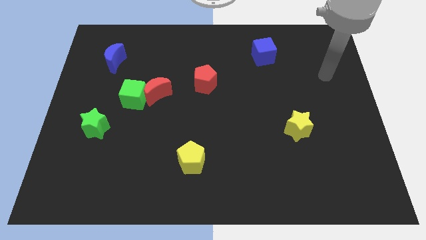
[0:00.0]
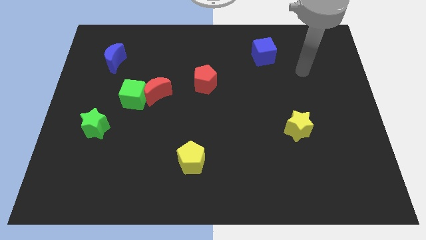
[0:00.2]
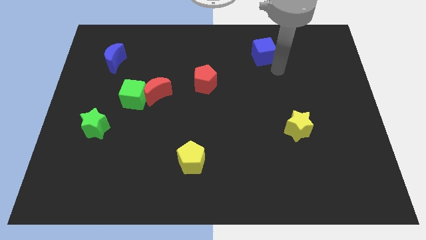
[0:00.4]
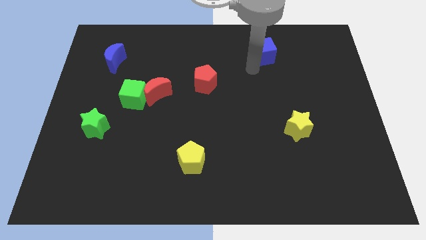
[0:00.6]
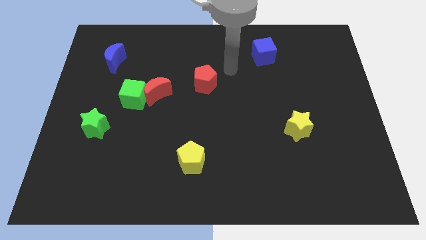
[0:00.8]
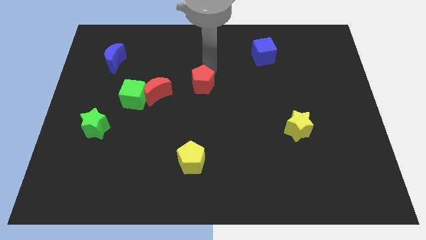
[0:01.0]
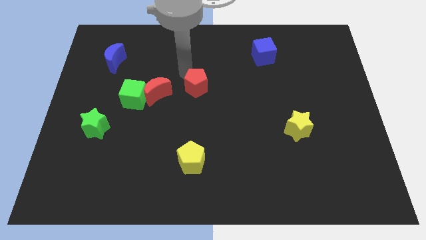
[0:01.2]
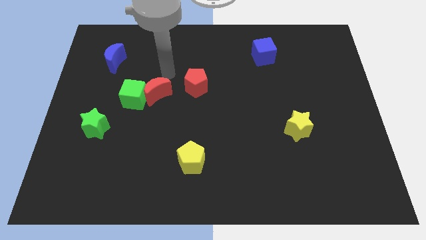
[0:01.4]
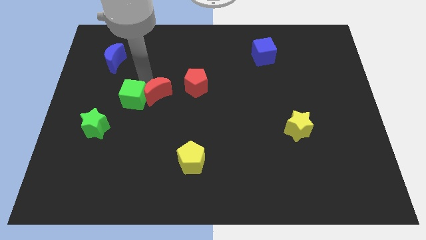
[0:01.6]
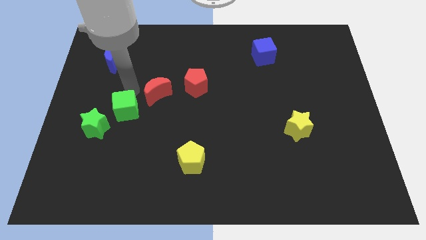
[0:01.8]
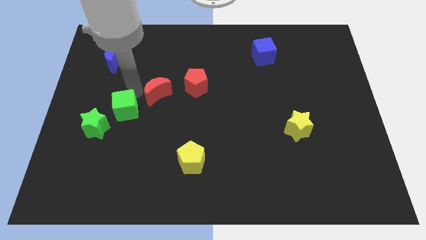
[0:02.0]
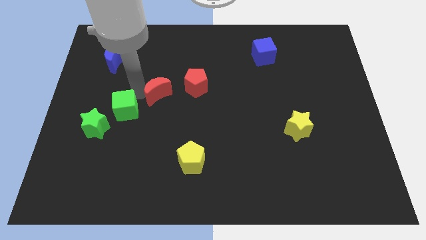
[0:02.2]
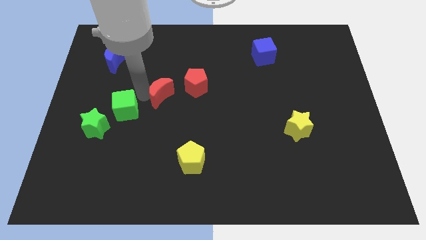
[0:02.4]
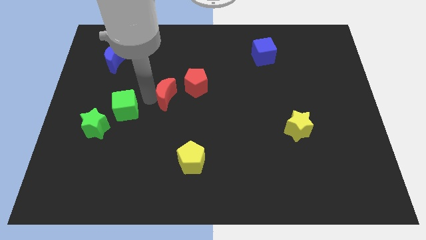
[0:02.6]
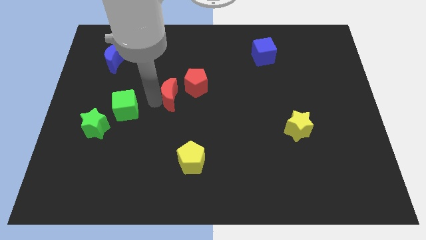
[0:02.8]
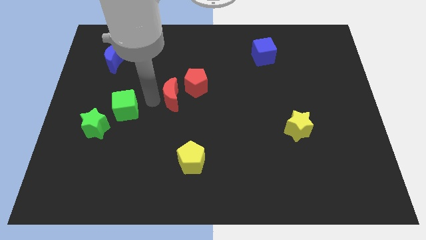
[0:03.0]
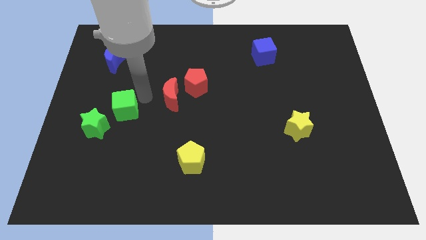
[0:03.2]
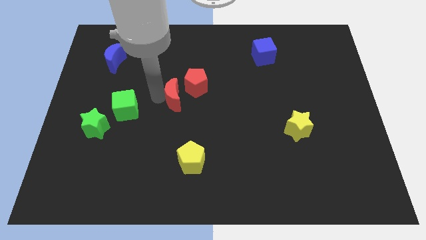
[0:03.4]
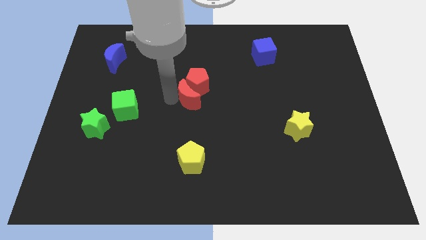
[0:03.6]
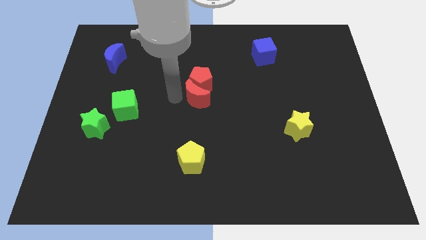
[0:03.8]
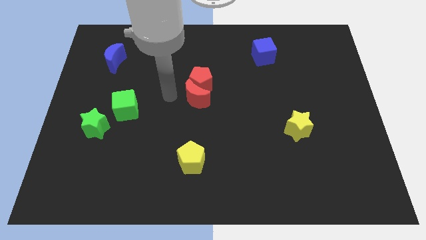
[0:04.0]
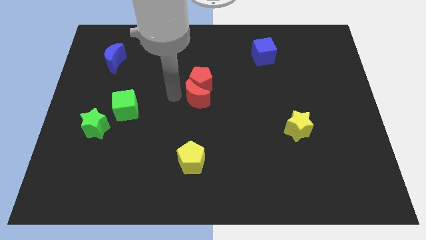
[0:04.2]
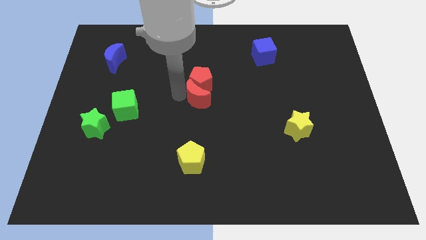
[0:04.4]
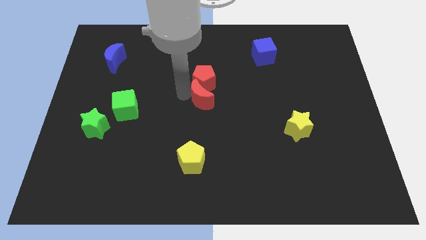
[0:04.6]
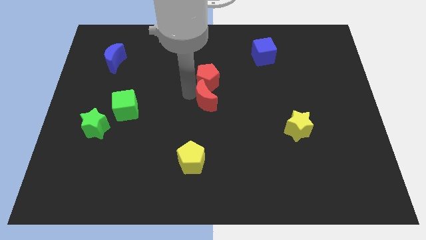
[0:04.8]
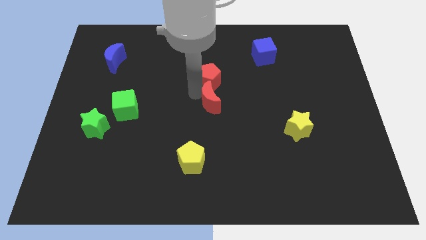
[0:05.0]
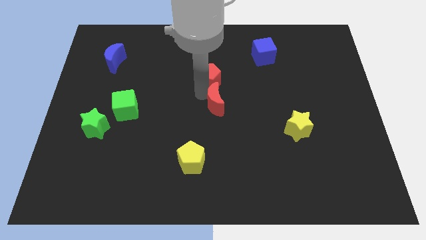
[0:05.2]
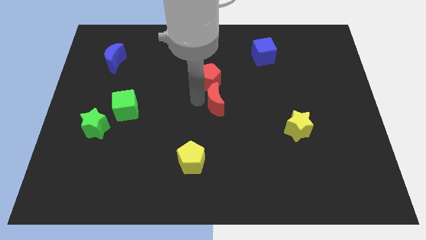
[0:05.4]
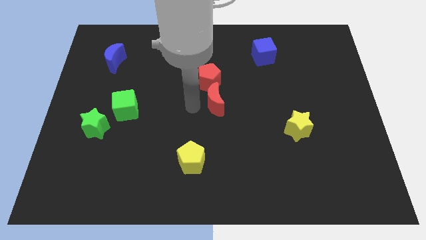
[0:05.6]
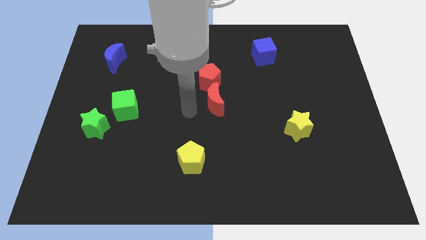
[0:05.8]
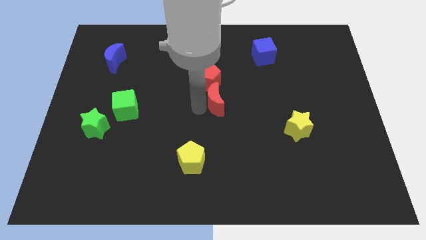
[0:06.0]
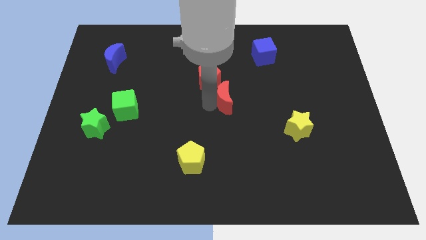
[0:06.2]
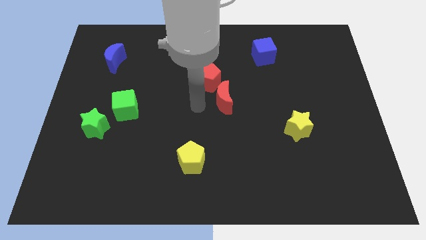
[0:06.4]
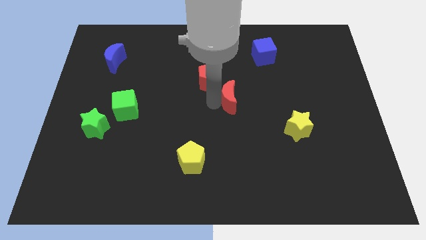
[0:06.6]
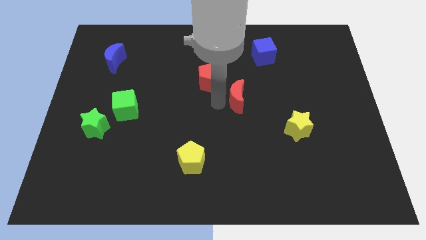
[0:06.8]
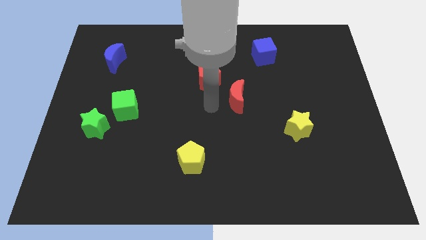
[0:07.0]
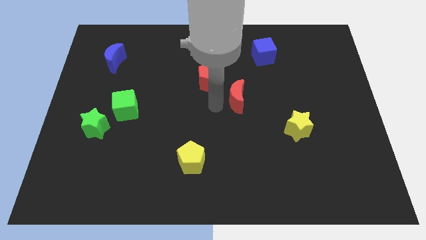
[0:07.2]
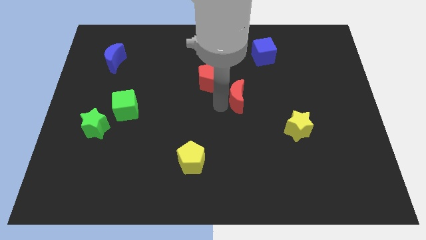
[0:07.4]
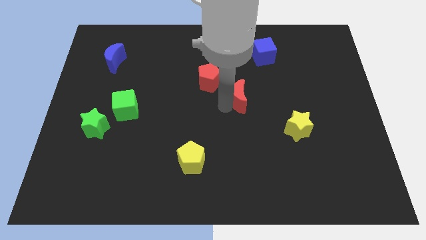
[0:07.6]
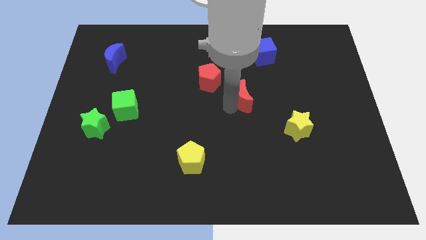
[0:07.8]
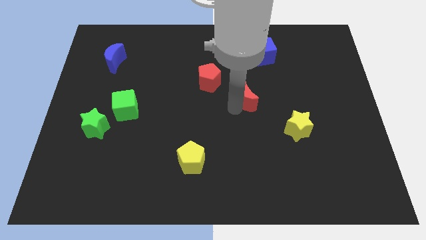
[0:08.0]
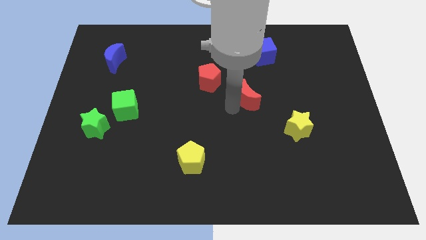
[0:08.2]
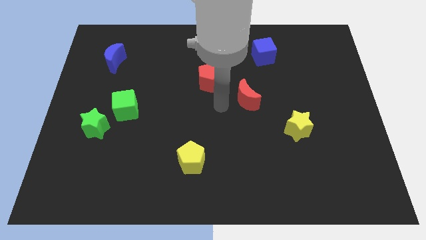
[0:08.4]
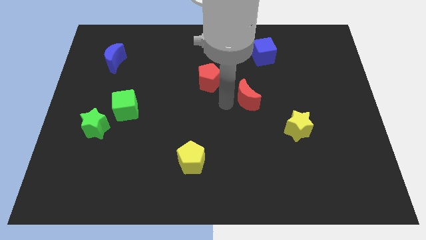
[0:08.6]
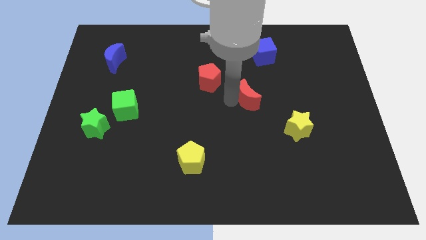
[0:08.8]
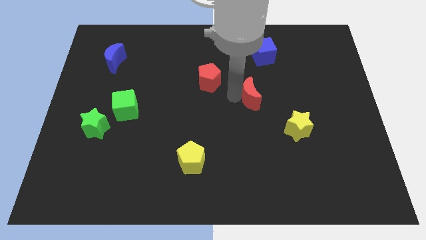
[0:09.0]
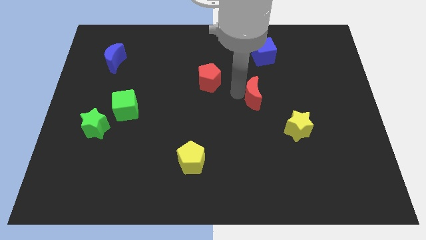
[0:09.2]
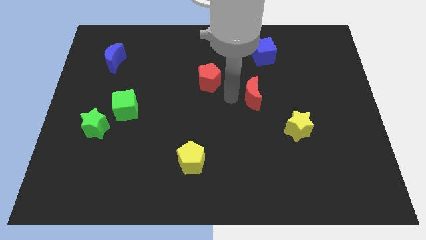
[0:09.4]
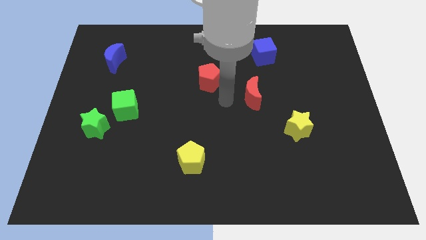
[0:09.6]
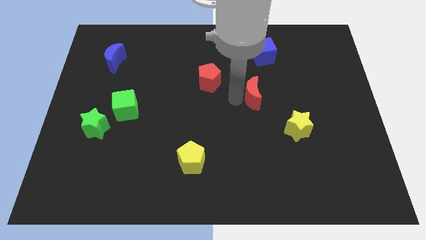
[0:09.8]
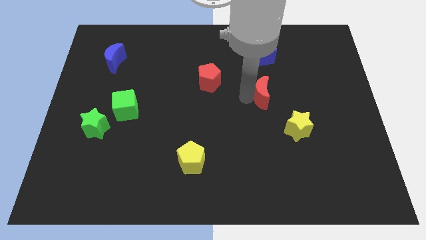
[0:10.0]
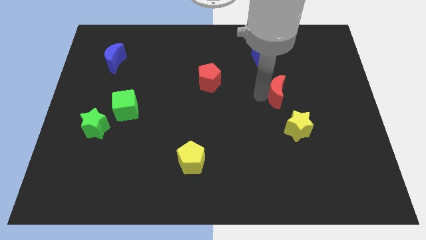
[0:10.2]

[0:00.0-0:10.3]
put the red moon to the top of the yellow star

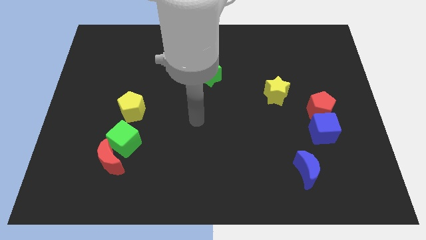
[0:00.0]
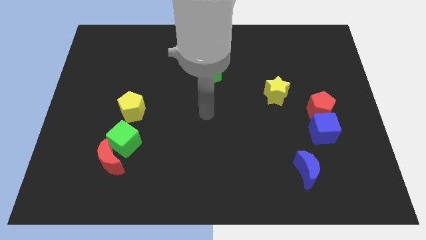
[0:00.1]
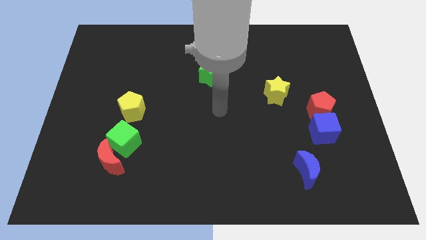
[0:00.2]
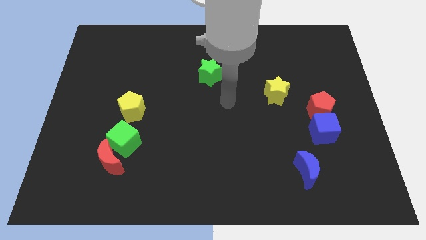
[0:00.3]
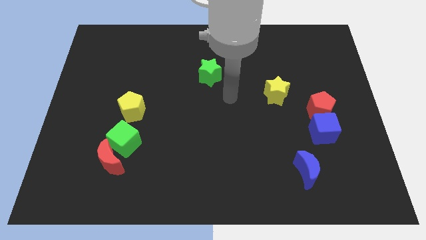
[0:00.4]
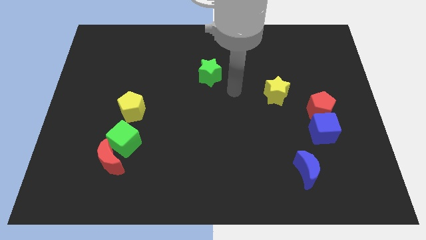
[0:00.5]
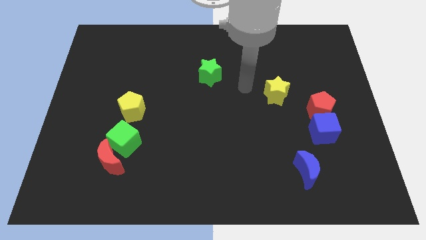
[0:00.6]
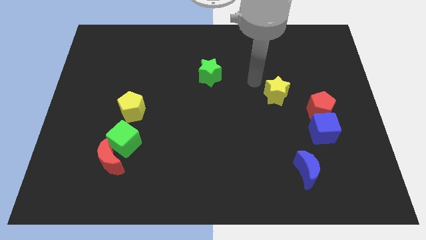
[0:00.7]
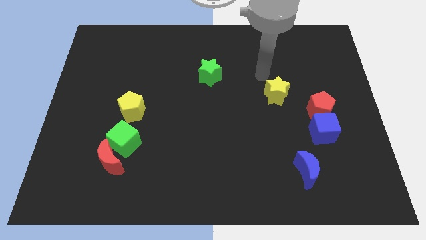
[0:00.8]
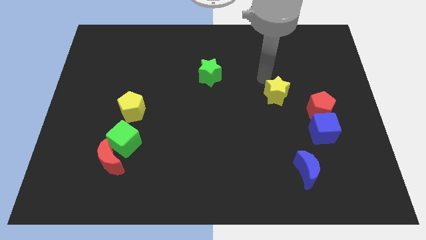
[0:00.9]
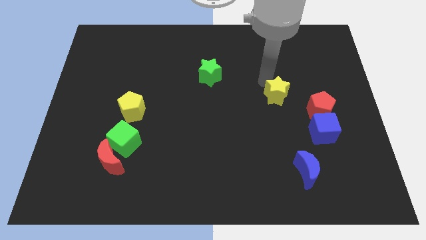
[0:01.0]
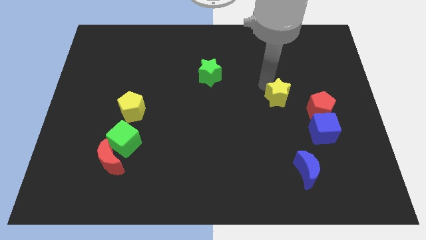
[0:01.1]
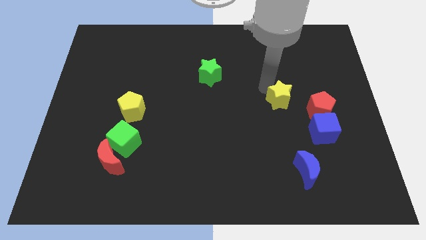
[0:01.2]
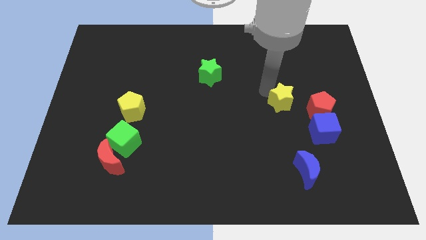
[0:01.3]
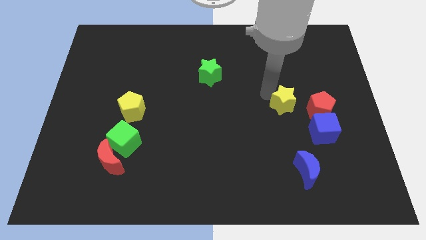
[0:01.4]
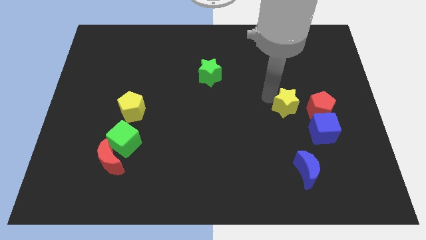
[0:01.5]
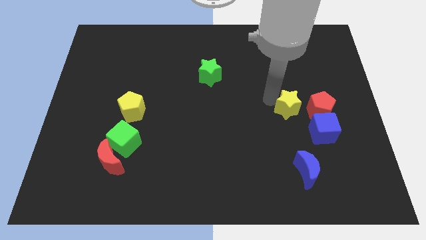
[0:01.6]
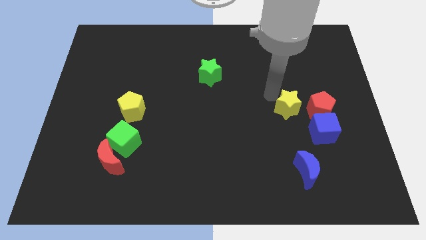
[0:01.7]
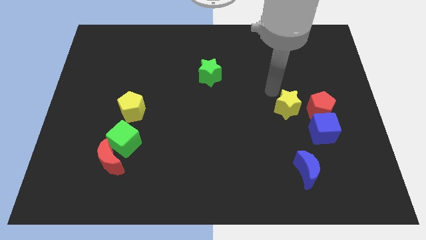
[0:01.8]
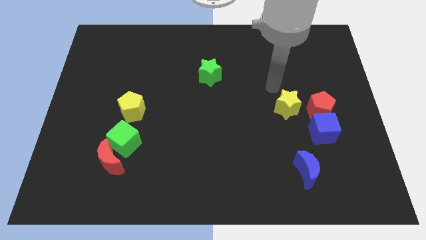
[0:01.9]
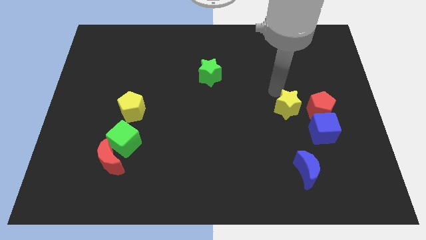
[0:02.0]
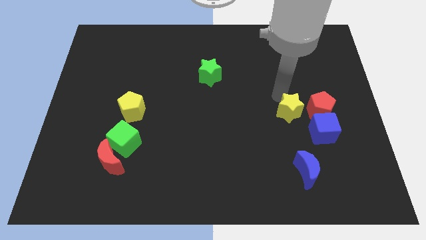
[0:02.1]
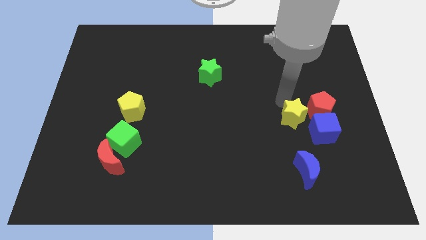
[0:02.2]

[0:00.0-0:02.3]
slide the yellow star to the bottom left of the red pentagon

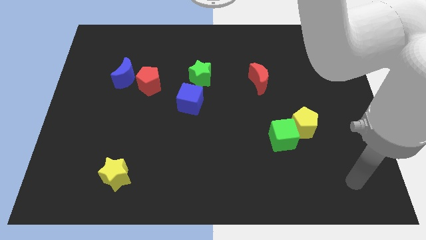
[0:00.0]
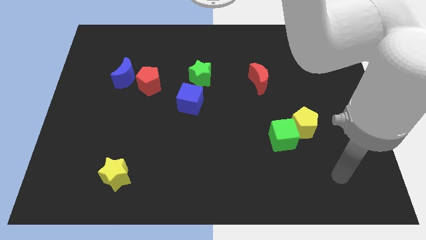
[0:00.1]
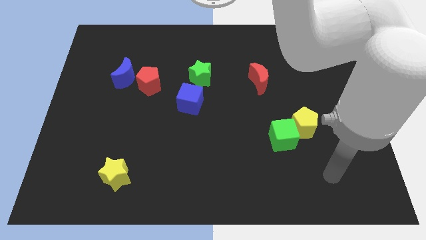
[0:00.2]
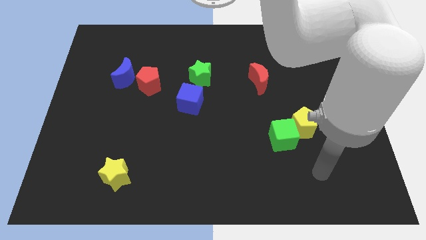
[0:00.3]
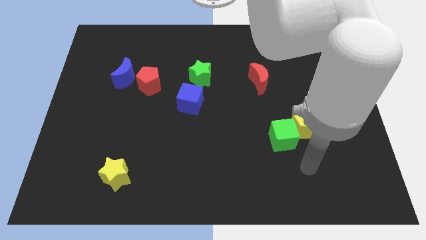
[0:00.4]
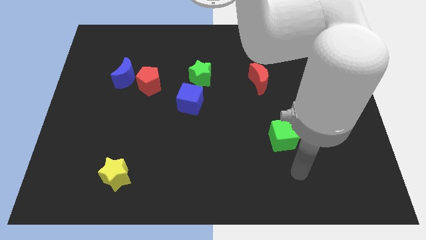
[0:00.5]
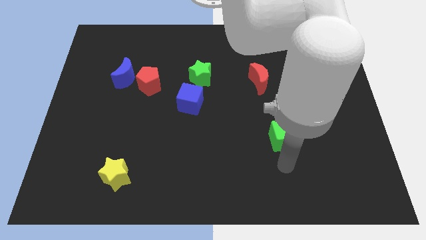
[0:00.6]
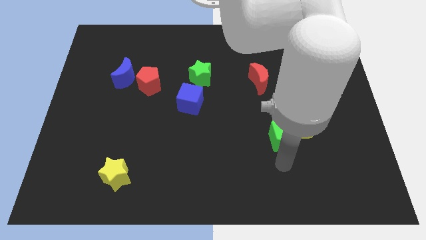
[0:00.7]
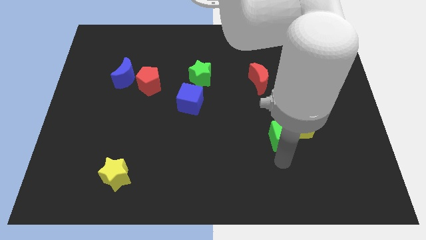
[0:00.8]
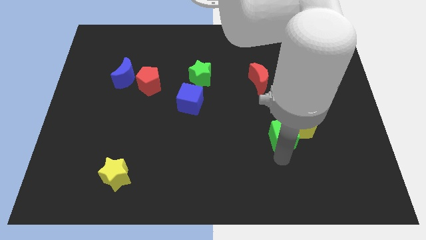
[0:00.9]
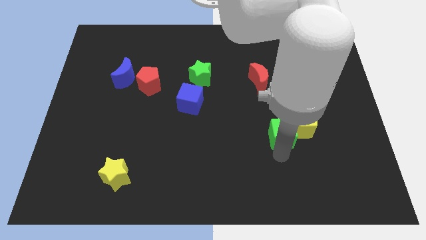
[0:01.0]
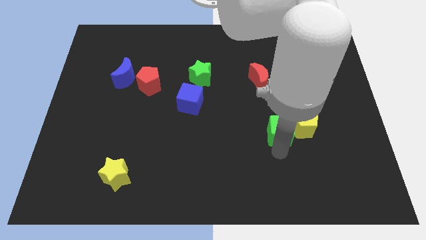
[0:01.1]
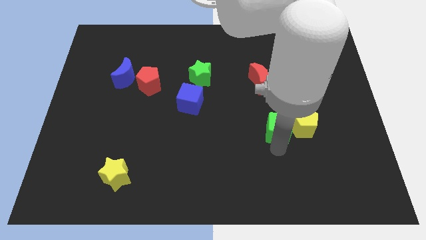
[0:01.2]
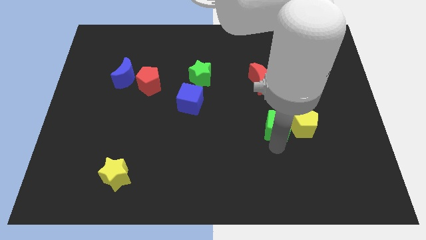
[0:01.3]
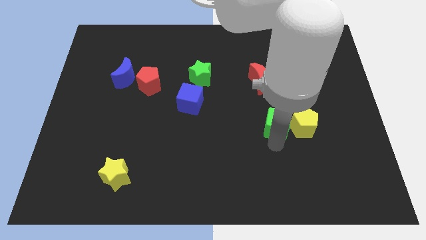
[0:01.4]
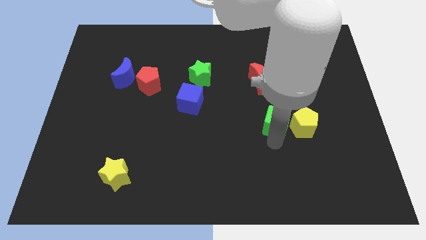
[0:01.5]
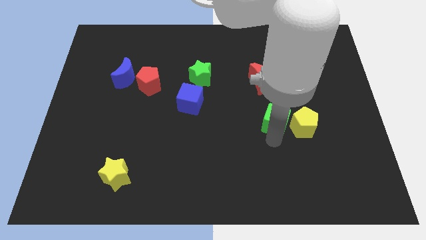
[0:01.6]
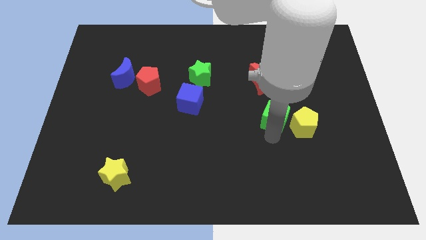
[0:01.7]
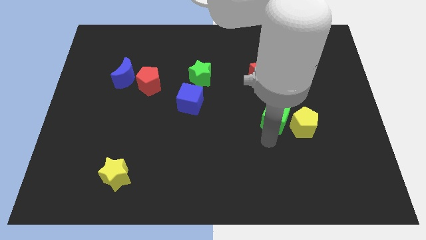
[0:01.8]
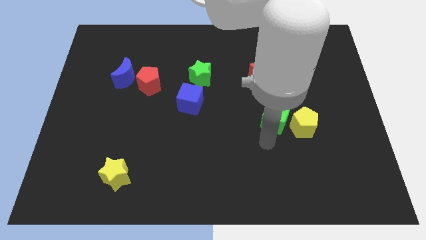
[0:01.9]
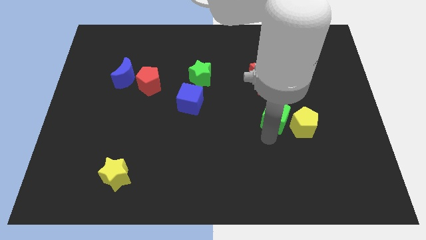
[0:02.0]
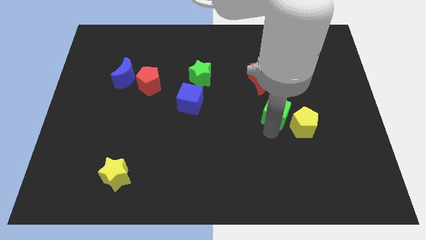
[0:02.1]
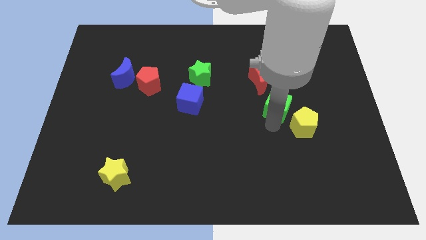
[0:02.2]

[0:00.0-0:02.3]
slide the green cube to the bottom right of the red moon
